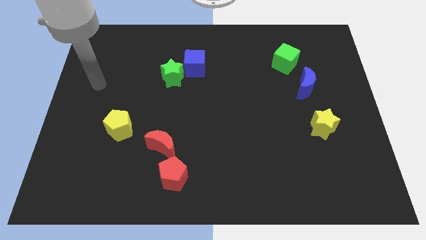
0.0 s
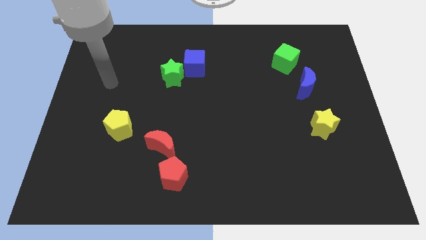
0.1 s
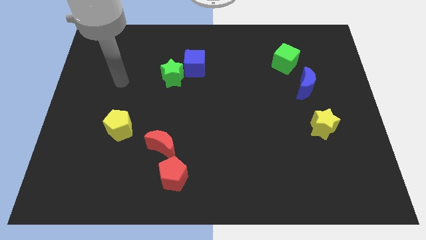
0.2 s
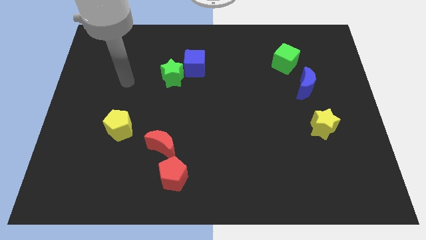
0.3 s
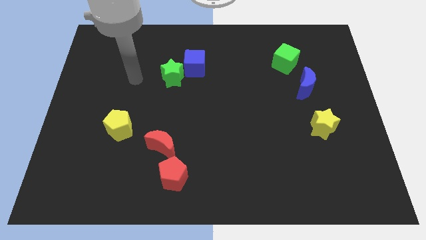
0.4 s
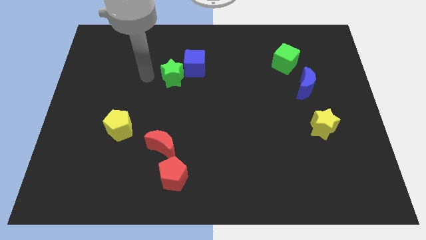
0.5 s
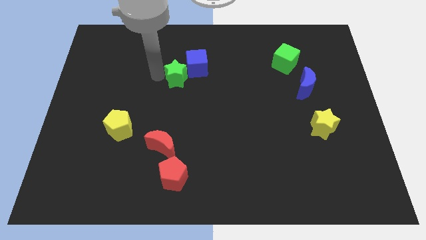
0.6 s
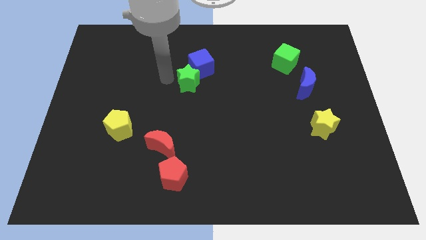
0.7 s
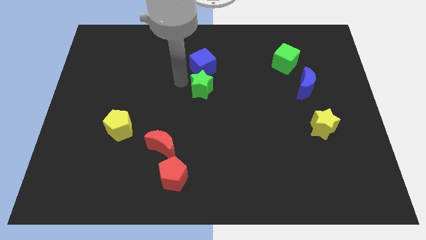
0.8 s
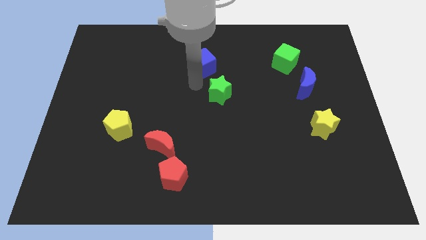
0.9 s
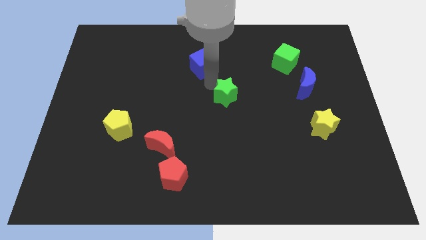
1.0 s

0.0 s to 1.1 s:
separate the blue cube from the green star

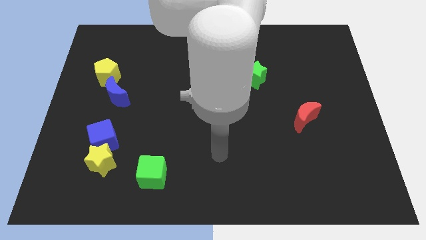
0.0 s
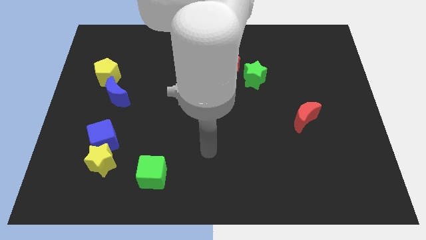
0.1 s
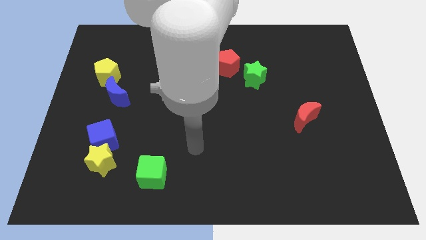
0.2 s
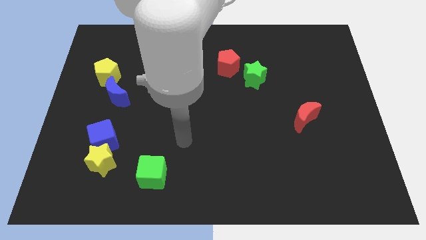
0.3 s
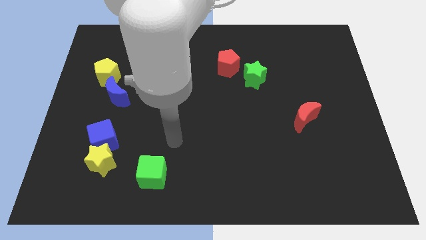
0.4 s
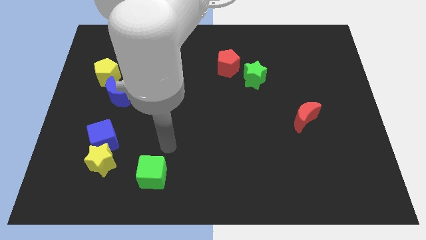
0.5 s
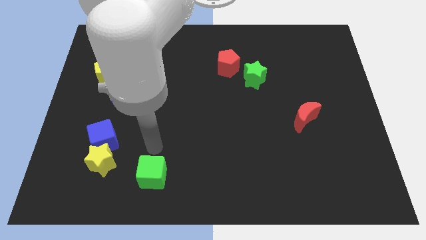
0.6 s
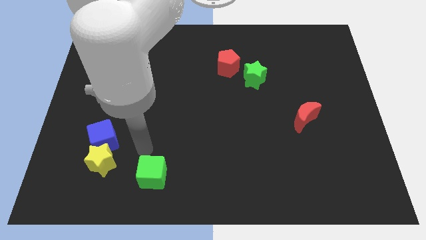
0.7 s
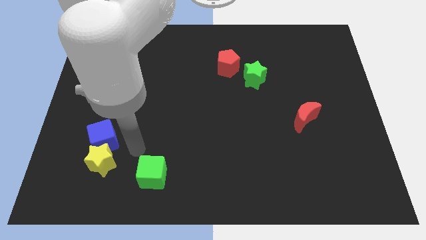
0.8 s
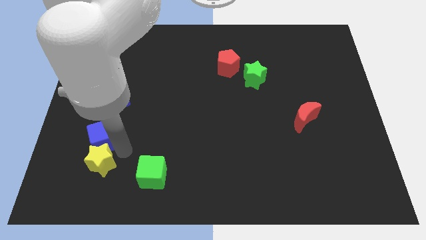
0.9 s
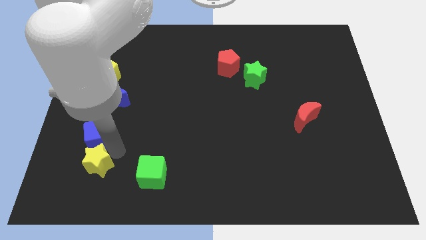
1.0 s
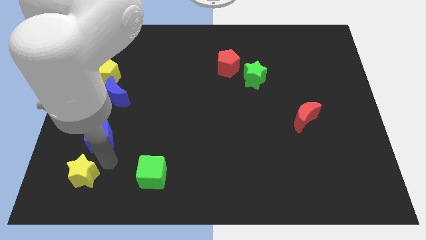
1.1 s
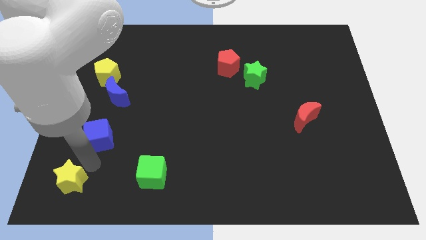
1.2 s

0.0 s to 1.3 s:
move the blue cube away from the yellow star

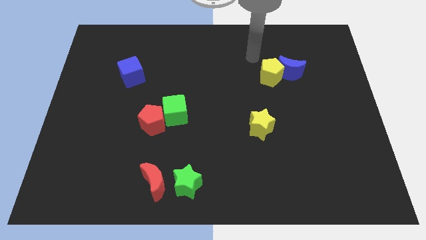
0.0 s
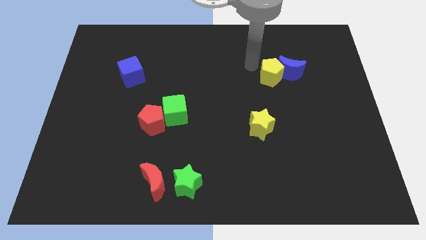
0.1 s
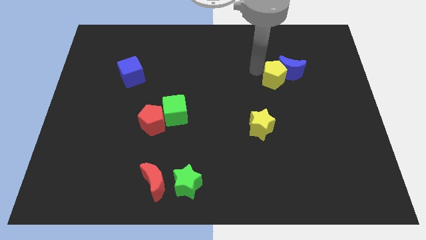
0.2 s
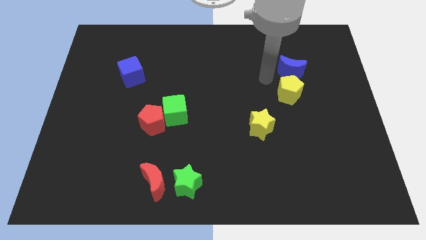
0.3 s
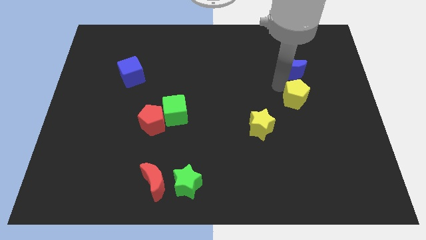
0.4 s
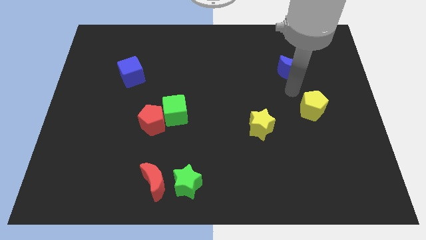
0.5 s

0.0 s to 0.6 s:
move the blue moon away from the yellow pentagon

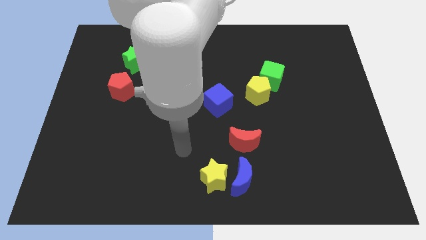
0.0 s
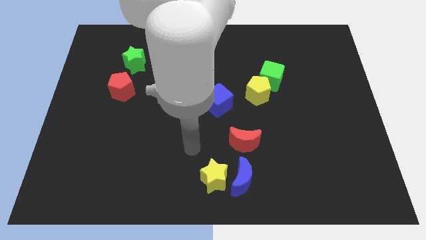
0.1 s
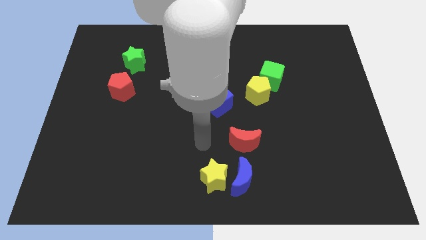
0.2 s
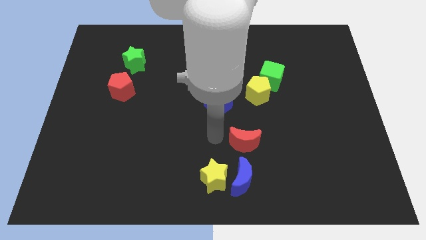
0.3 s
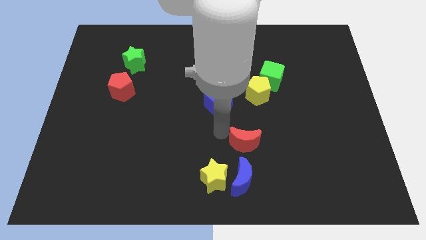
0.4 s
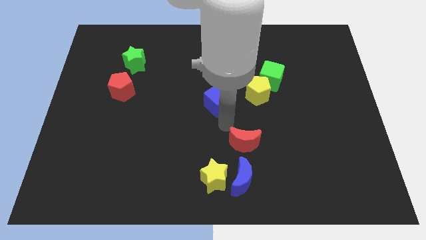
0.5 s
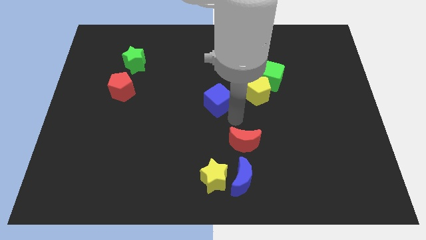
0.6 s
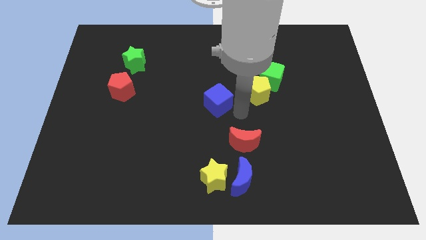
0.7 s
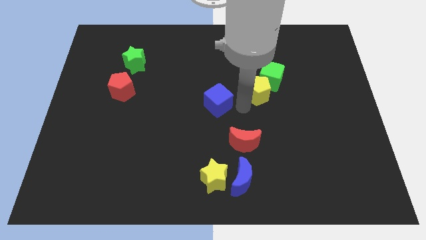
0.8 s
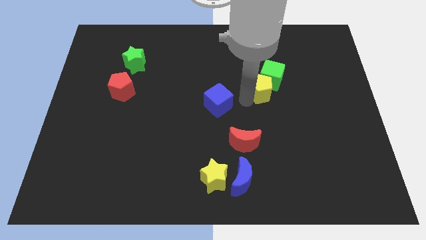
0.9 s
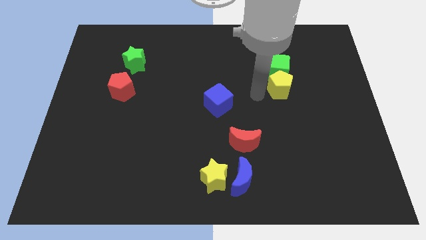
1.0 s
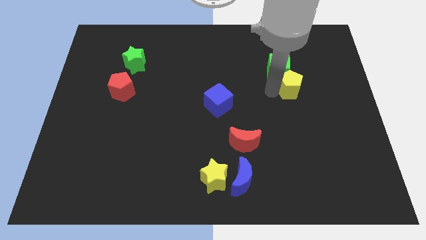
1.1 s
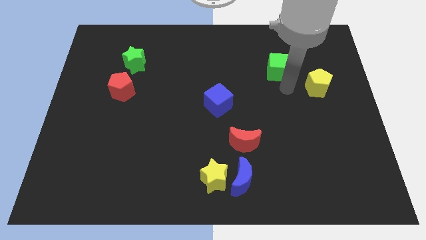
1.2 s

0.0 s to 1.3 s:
move the green cube away from the yellow pentagon

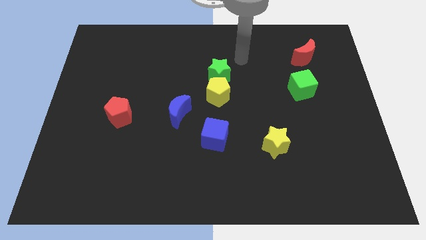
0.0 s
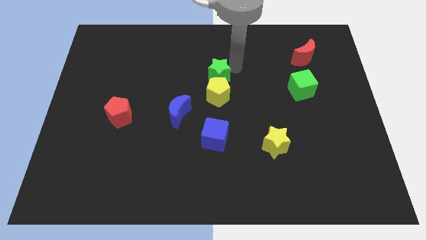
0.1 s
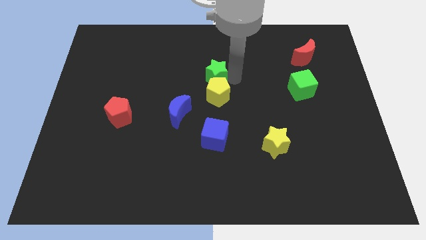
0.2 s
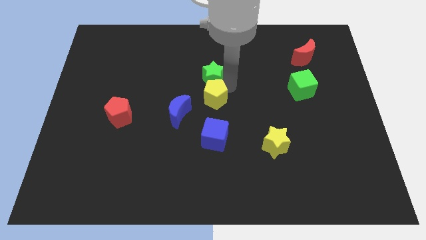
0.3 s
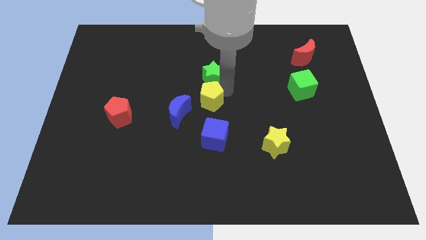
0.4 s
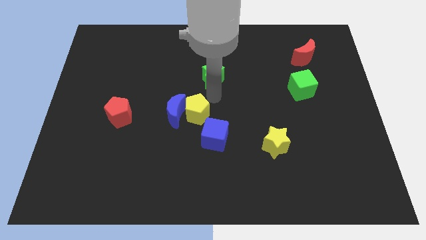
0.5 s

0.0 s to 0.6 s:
pull the green star apart from the yellow pentagon

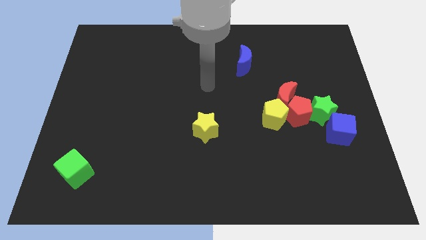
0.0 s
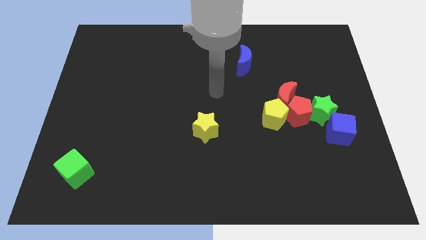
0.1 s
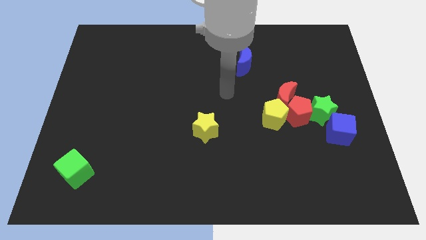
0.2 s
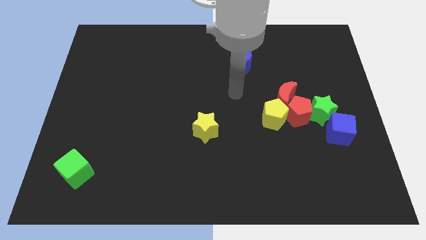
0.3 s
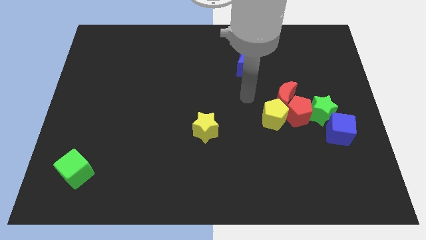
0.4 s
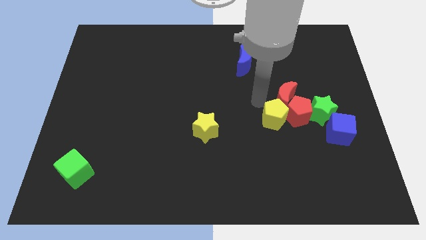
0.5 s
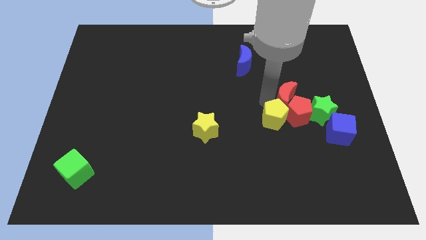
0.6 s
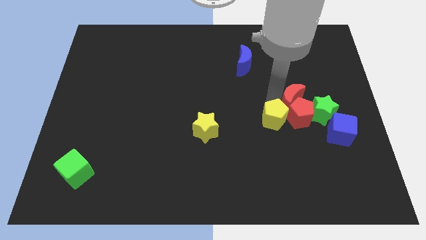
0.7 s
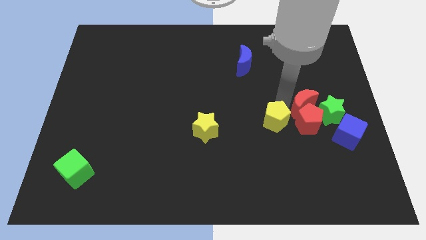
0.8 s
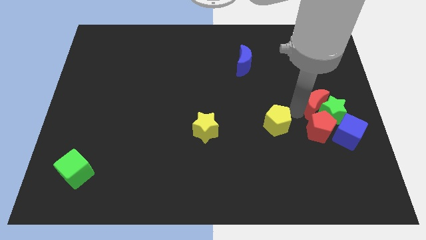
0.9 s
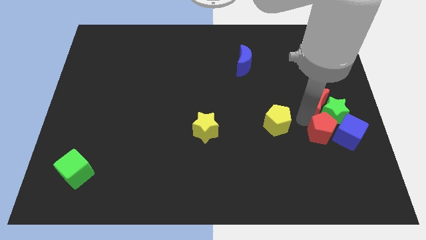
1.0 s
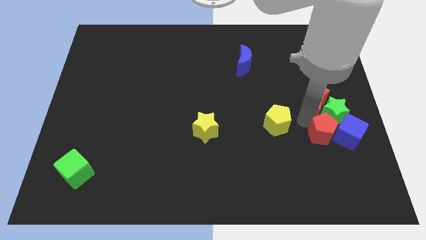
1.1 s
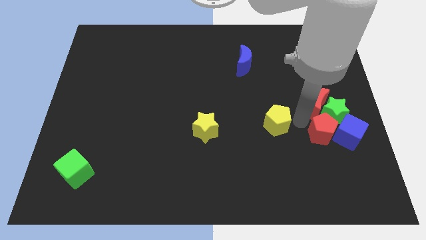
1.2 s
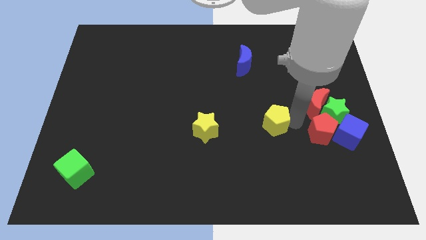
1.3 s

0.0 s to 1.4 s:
pull the yellow pentagon apart from the red pentagon and red moon

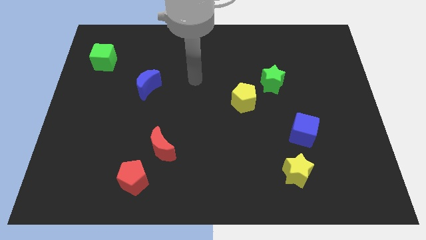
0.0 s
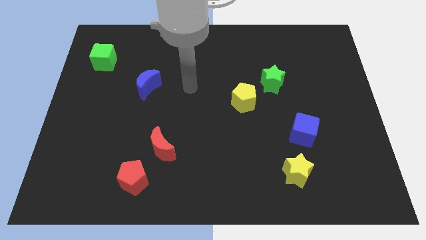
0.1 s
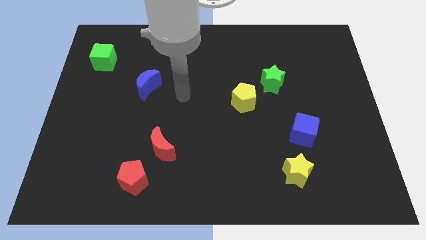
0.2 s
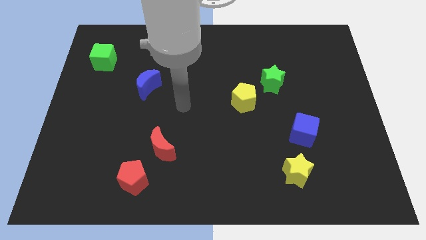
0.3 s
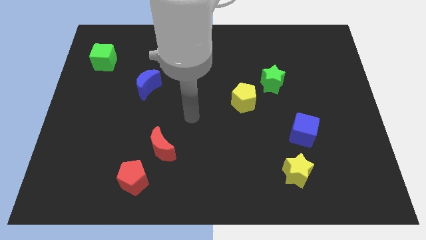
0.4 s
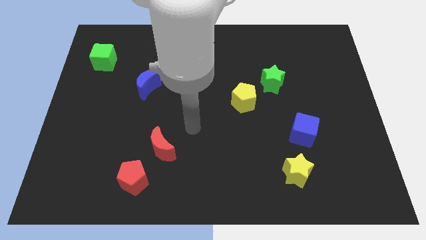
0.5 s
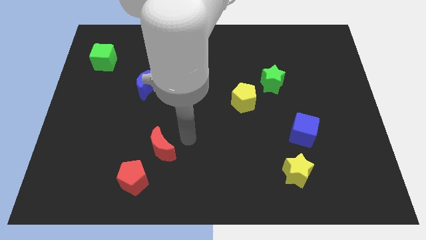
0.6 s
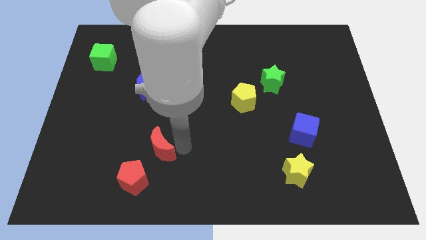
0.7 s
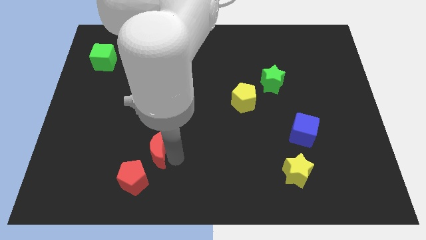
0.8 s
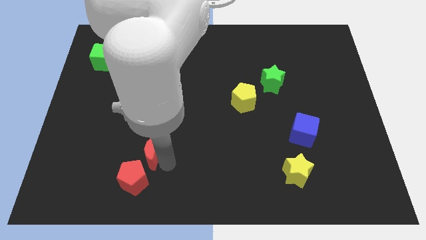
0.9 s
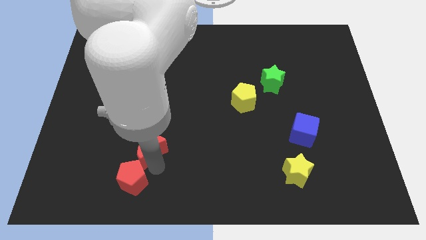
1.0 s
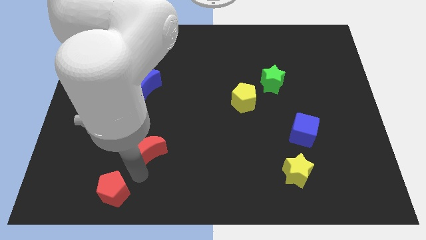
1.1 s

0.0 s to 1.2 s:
separate the red moon from the red pentagon

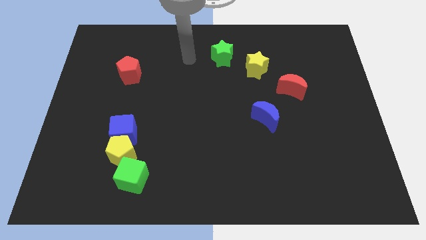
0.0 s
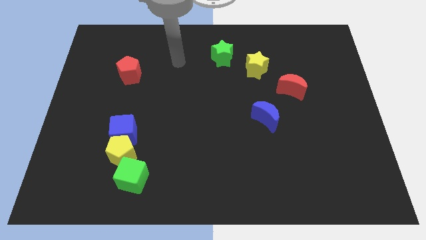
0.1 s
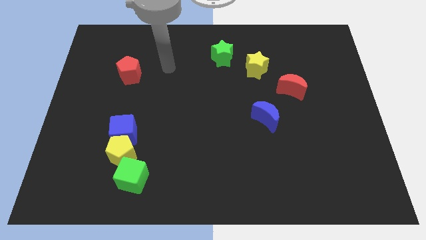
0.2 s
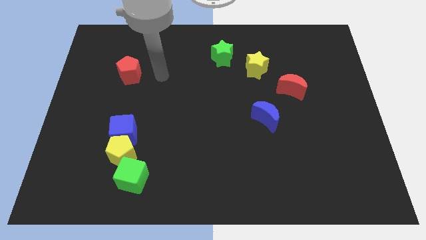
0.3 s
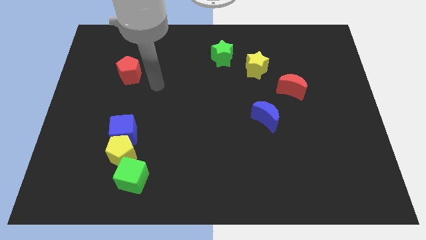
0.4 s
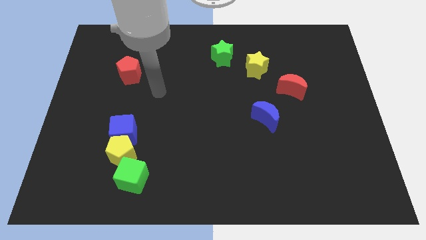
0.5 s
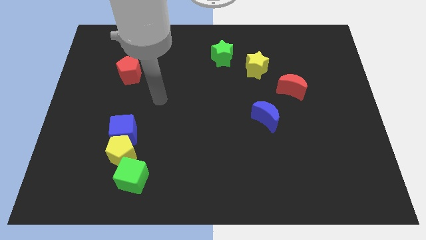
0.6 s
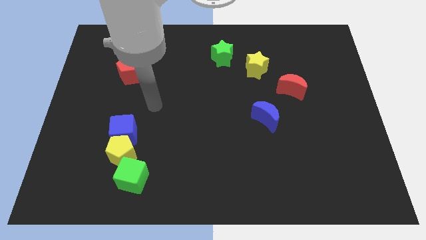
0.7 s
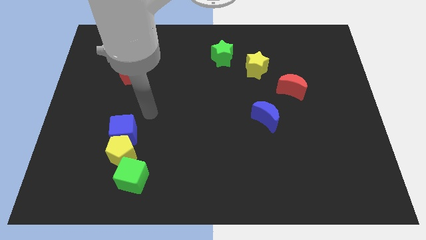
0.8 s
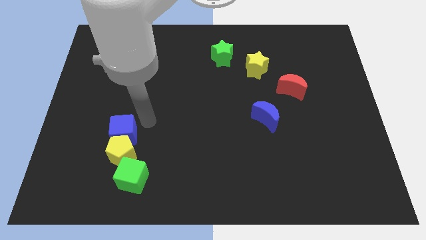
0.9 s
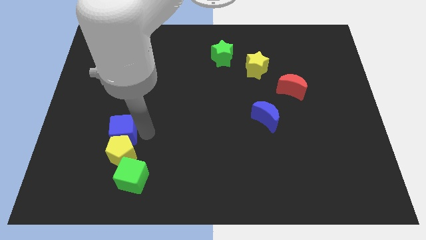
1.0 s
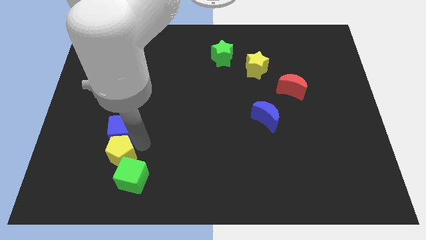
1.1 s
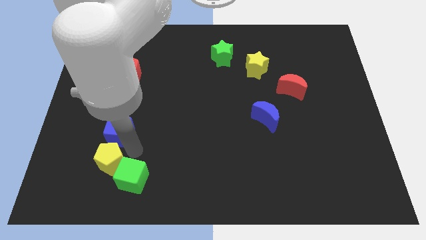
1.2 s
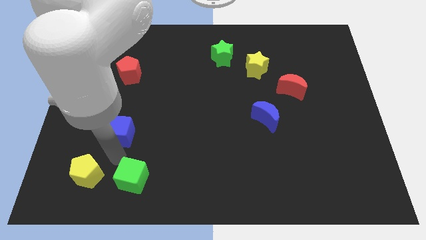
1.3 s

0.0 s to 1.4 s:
separate the blue cube from the yellow pentagon
